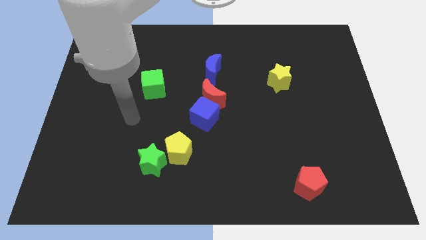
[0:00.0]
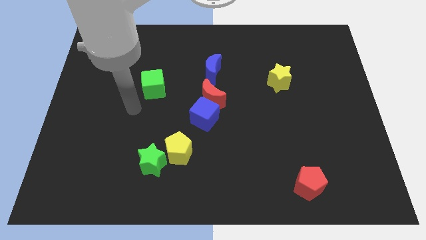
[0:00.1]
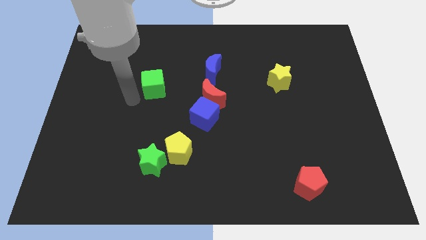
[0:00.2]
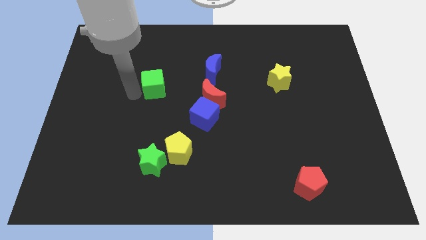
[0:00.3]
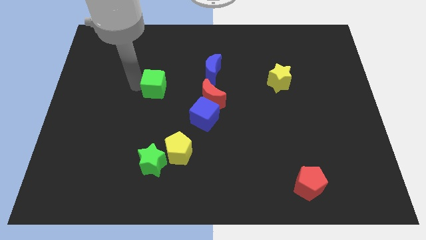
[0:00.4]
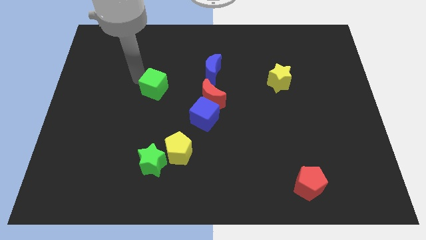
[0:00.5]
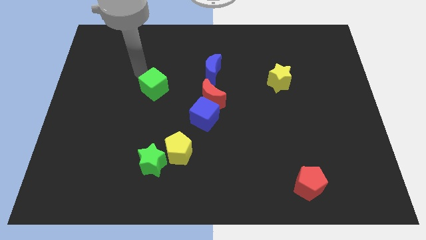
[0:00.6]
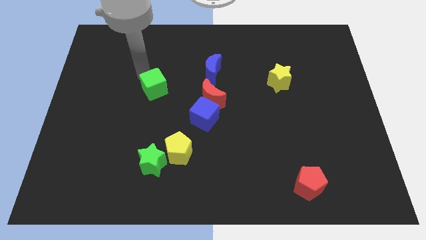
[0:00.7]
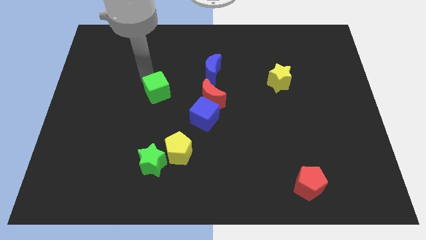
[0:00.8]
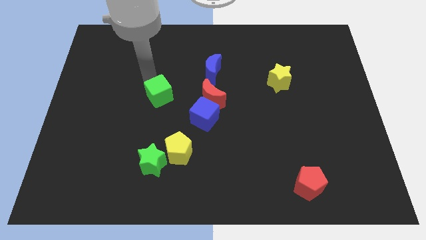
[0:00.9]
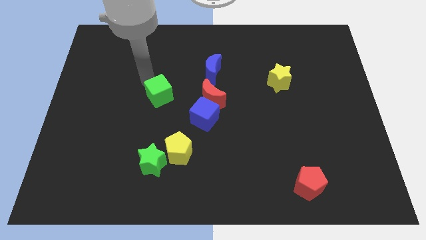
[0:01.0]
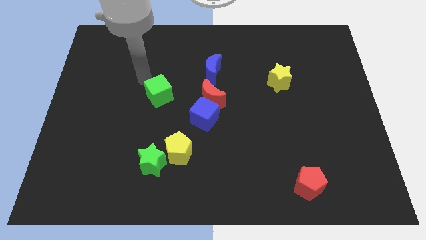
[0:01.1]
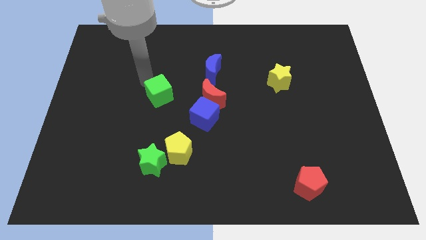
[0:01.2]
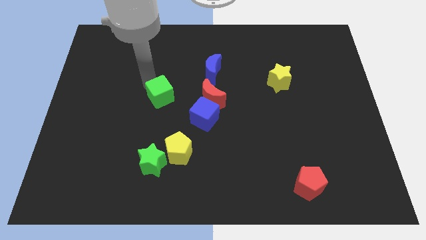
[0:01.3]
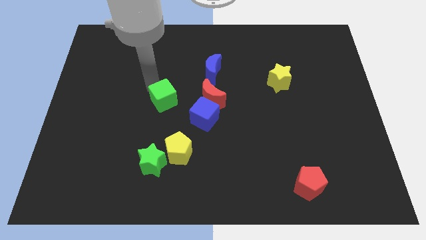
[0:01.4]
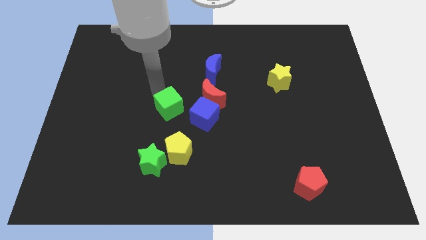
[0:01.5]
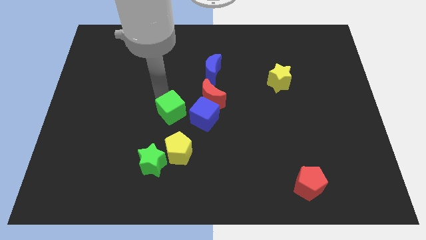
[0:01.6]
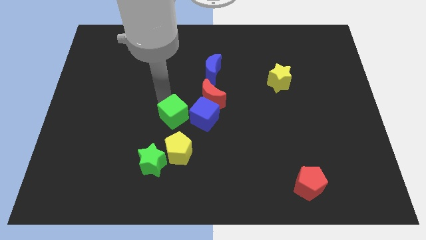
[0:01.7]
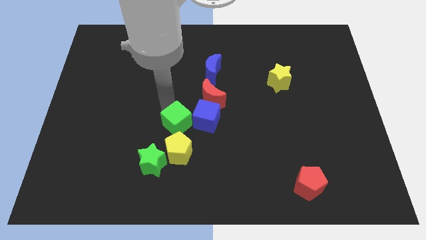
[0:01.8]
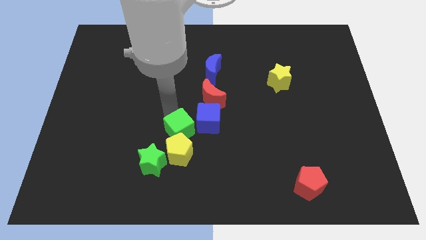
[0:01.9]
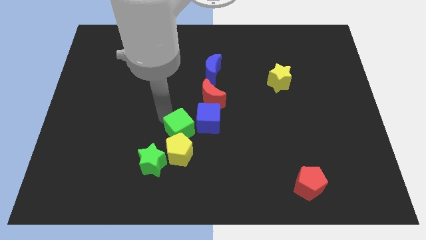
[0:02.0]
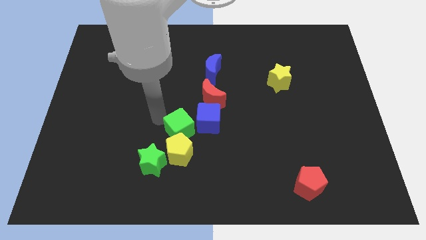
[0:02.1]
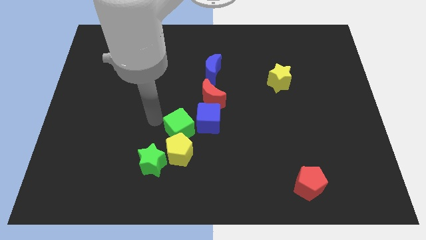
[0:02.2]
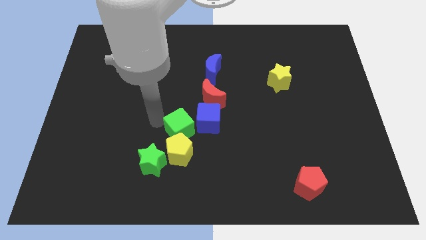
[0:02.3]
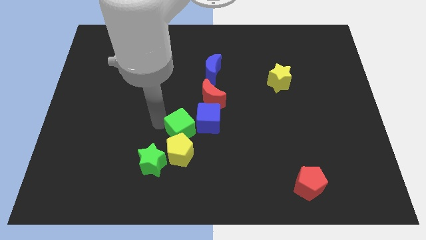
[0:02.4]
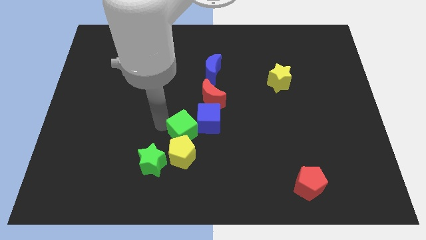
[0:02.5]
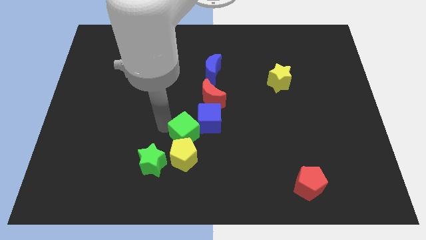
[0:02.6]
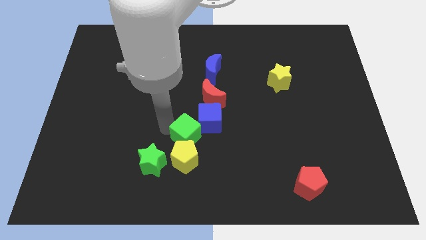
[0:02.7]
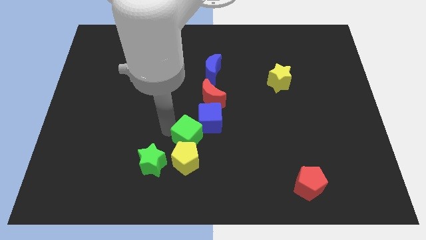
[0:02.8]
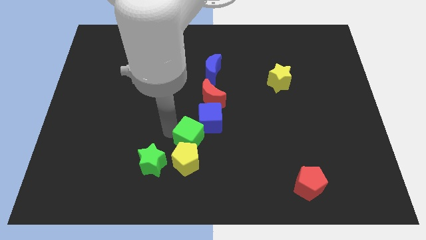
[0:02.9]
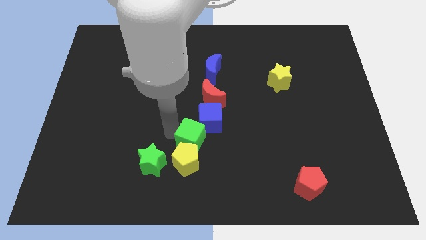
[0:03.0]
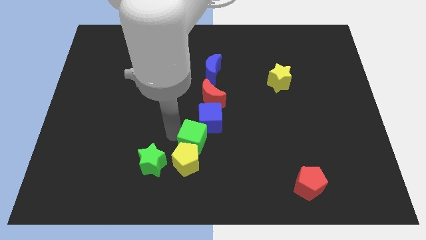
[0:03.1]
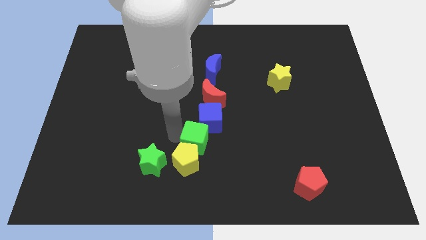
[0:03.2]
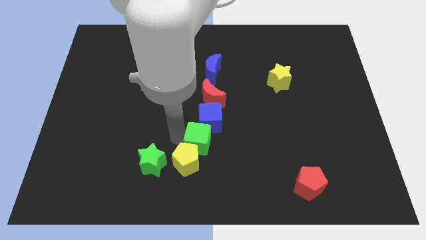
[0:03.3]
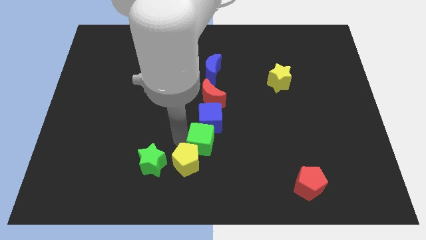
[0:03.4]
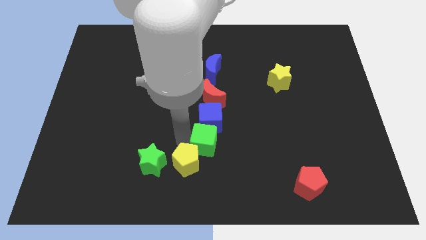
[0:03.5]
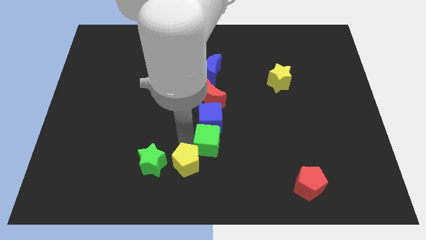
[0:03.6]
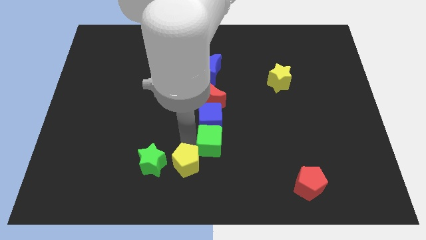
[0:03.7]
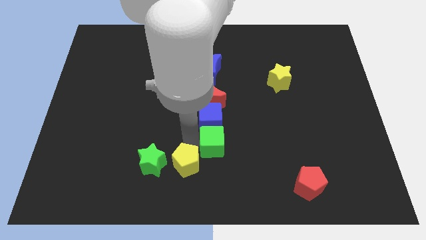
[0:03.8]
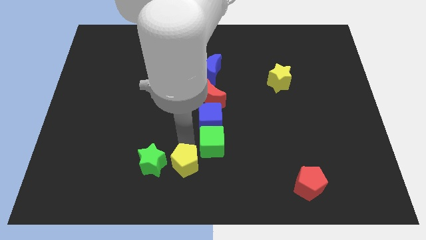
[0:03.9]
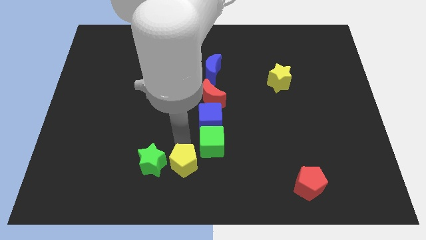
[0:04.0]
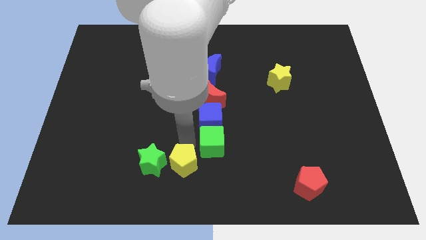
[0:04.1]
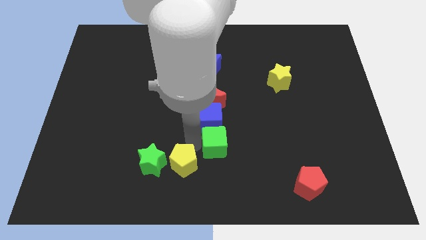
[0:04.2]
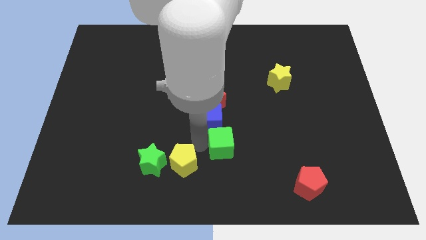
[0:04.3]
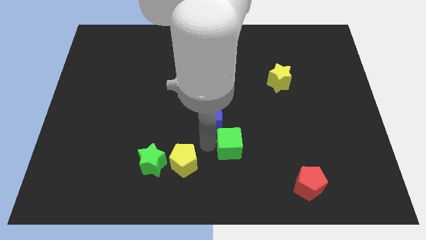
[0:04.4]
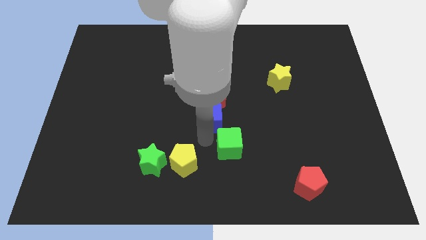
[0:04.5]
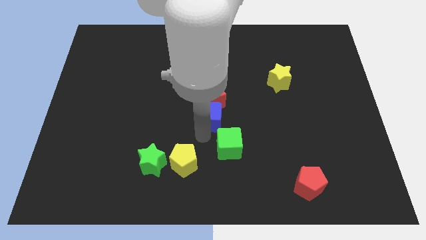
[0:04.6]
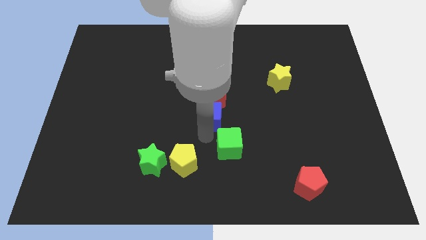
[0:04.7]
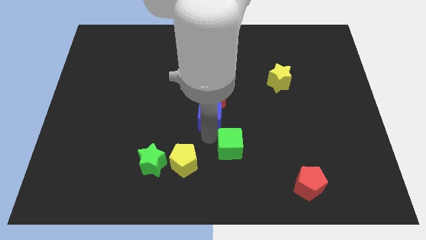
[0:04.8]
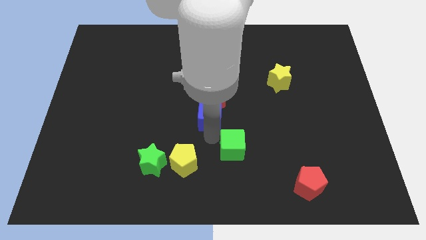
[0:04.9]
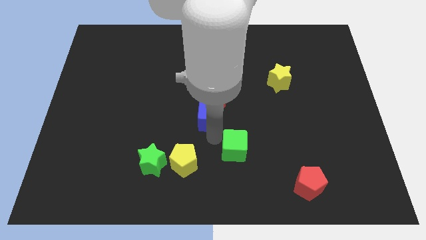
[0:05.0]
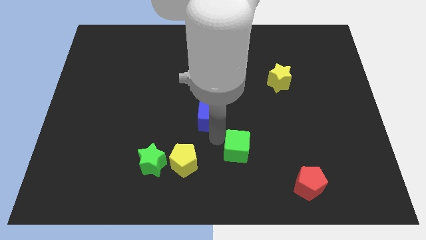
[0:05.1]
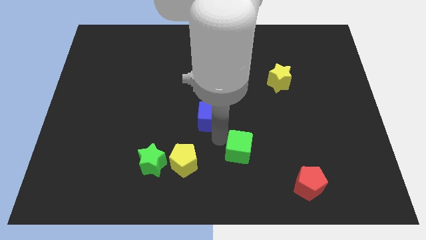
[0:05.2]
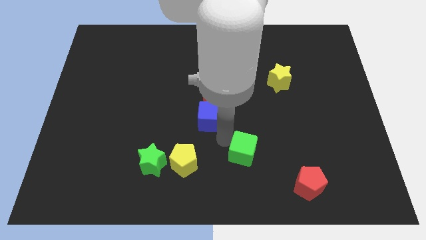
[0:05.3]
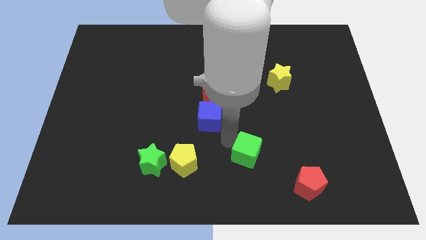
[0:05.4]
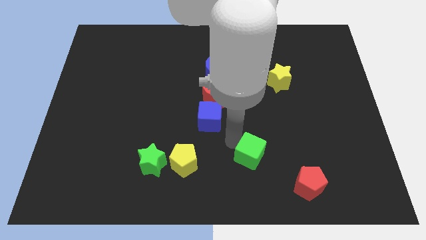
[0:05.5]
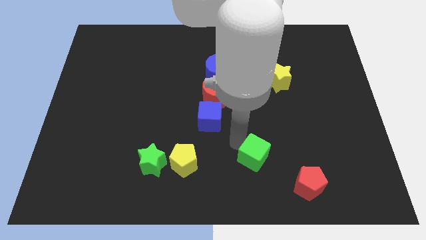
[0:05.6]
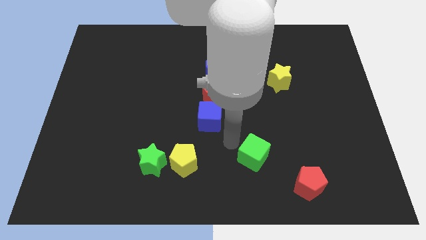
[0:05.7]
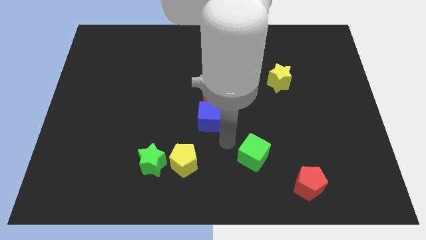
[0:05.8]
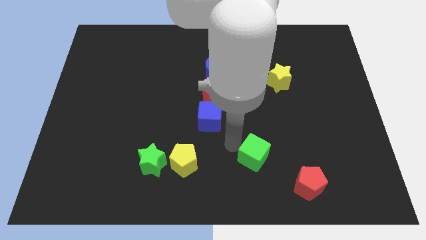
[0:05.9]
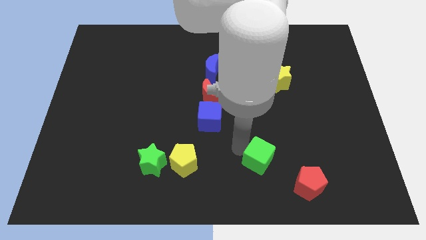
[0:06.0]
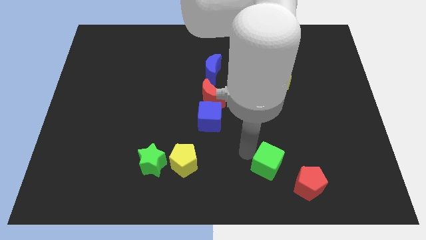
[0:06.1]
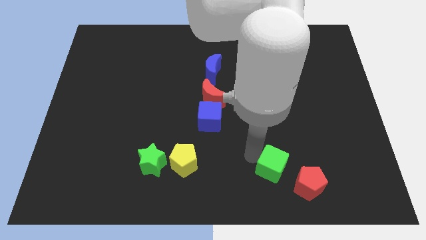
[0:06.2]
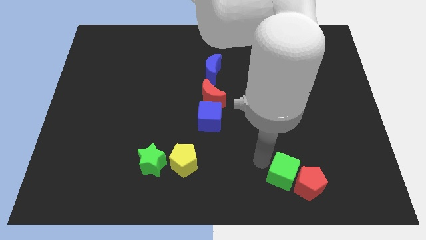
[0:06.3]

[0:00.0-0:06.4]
slide the green cube close to the red pentagon

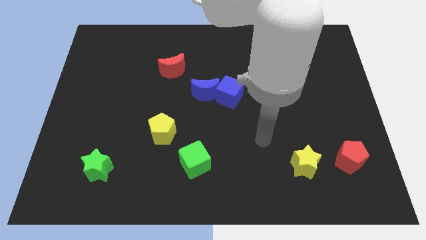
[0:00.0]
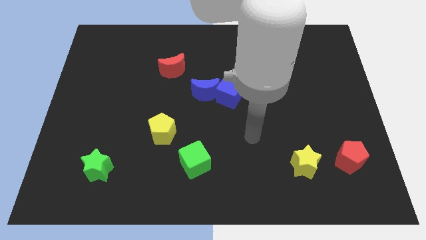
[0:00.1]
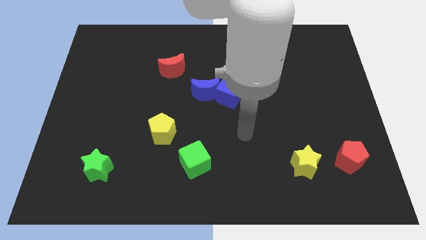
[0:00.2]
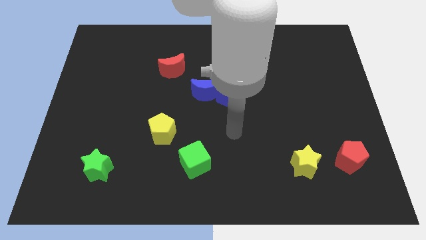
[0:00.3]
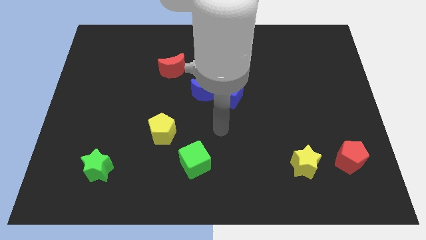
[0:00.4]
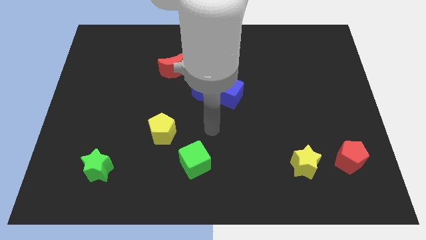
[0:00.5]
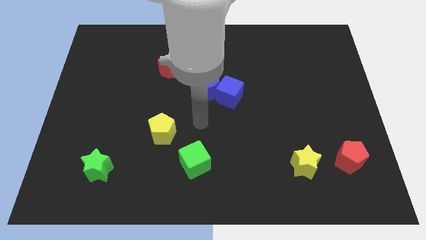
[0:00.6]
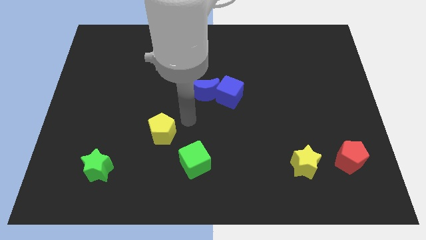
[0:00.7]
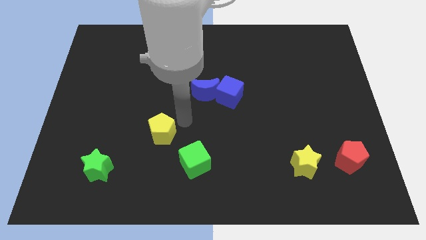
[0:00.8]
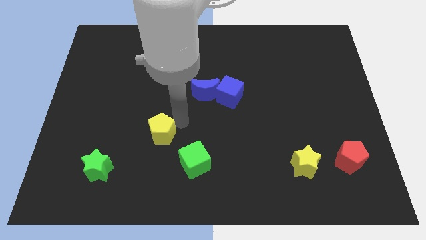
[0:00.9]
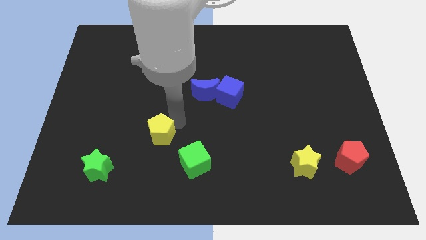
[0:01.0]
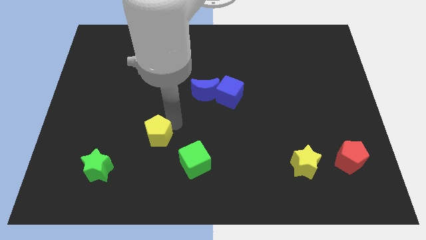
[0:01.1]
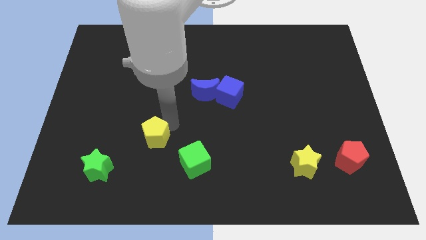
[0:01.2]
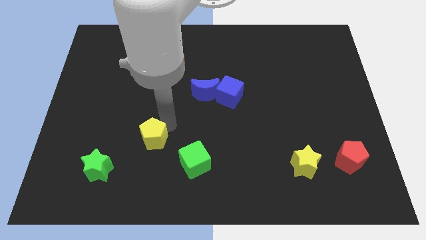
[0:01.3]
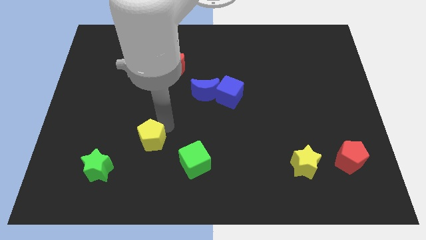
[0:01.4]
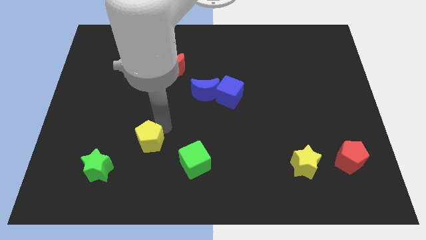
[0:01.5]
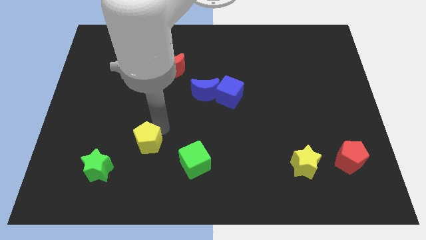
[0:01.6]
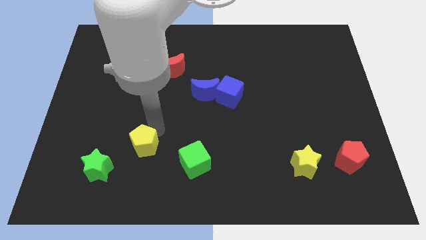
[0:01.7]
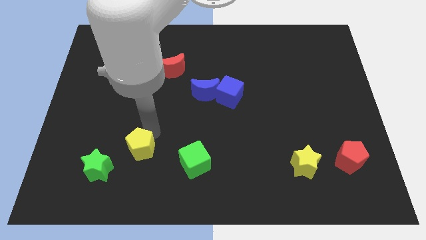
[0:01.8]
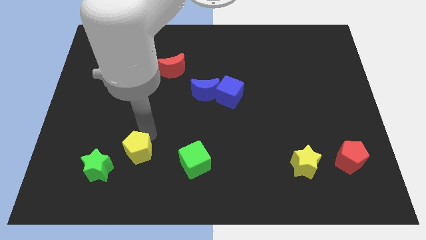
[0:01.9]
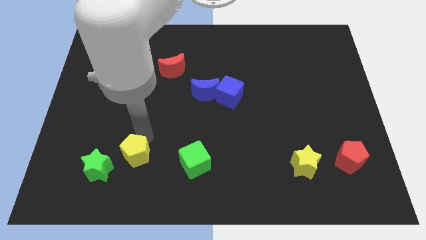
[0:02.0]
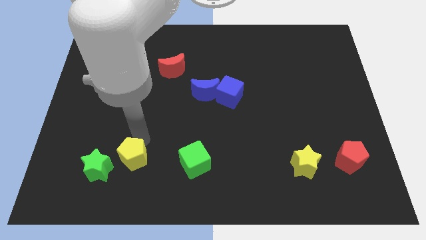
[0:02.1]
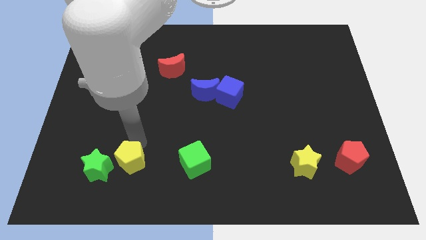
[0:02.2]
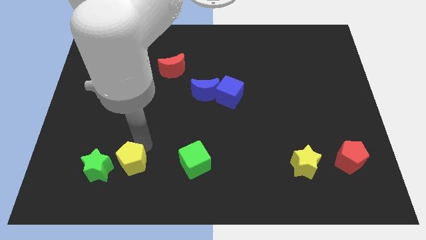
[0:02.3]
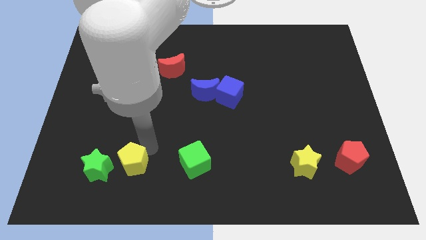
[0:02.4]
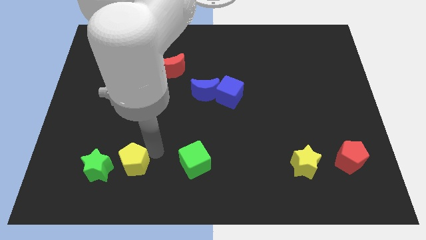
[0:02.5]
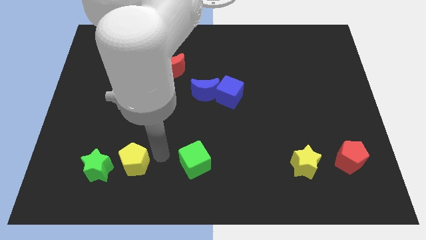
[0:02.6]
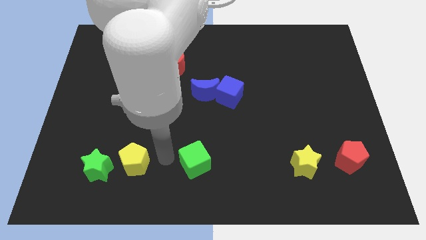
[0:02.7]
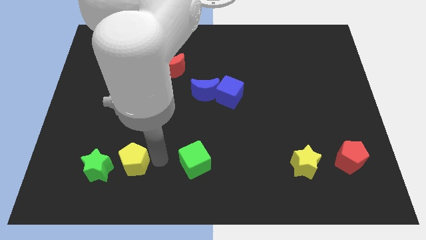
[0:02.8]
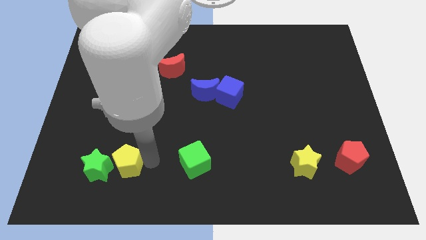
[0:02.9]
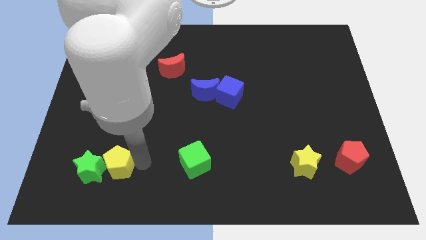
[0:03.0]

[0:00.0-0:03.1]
slide the yellow pentagon close to the green star
